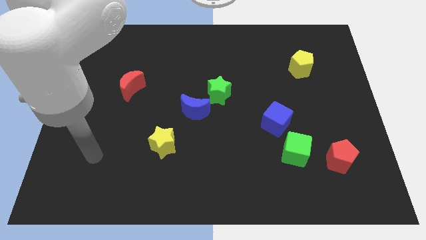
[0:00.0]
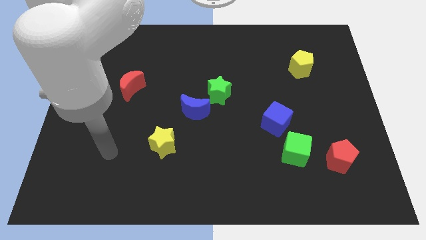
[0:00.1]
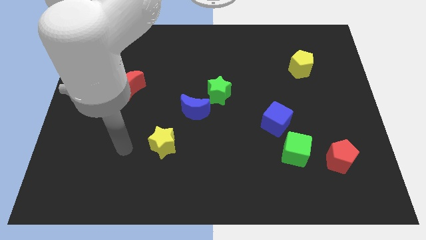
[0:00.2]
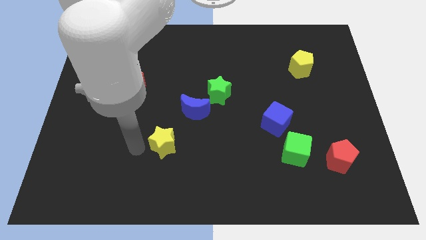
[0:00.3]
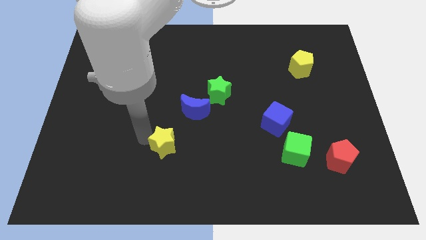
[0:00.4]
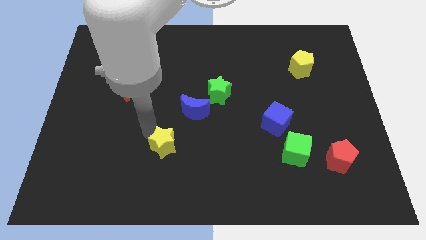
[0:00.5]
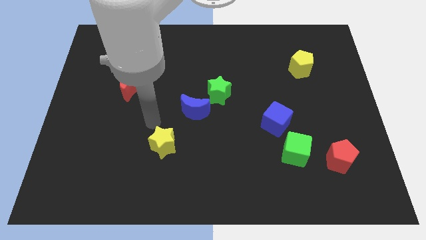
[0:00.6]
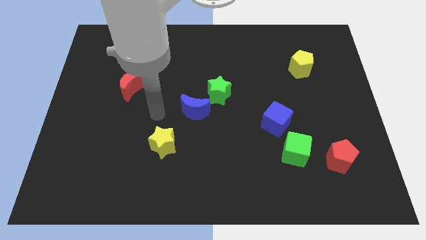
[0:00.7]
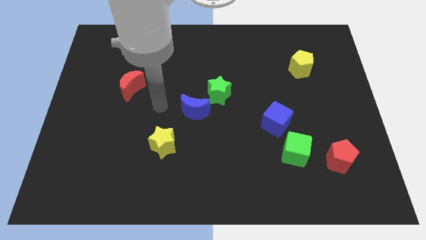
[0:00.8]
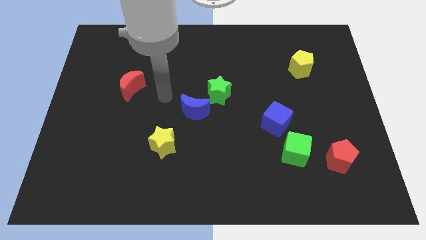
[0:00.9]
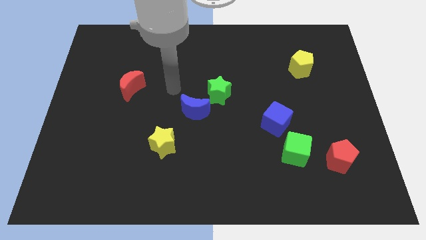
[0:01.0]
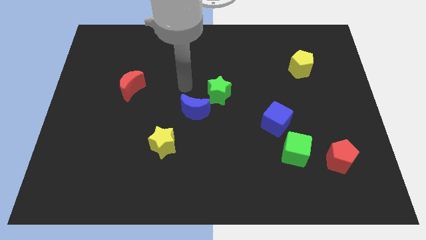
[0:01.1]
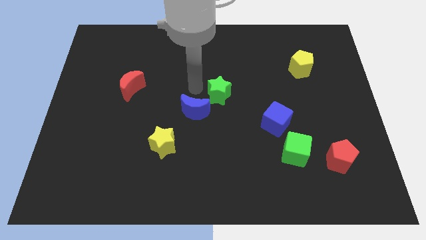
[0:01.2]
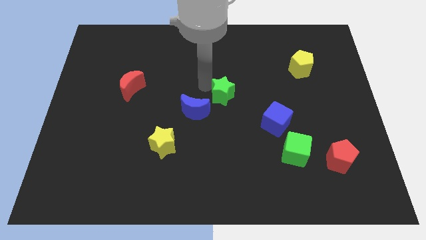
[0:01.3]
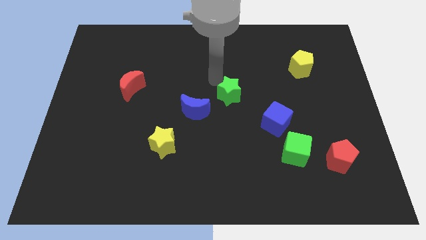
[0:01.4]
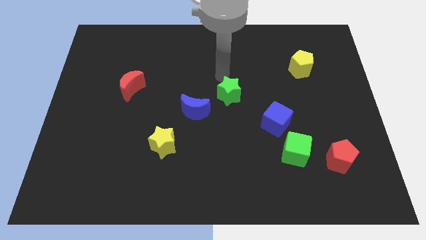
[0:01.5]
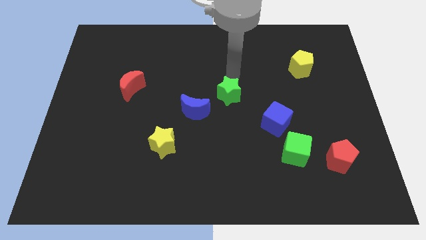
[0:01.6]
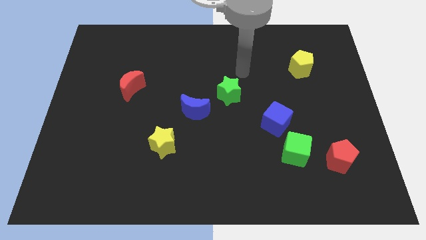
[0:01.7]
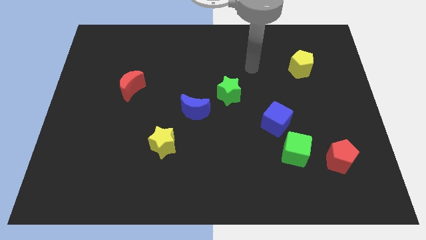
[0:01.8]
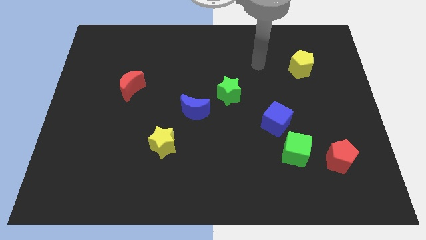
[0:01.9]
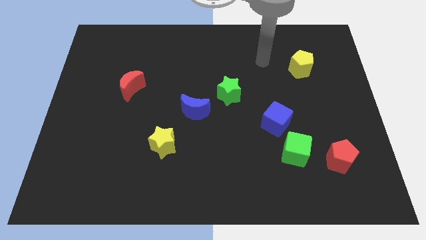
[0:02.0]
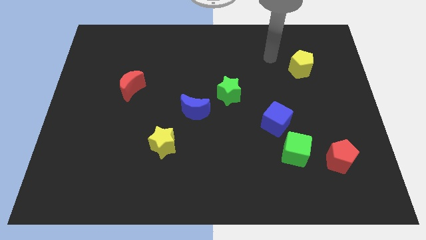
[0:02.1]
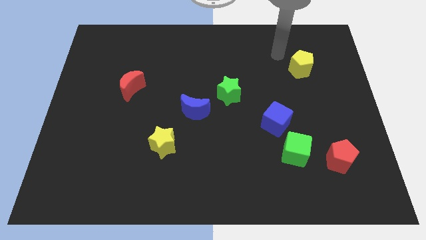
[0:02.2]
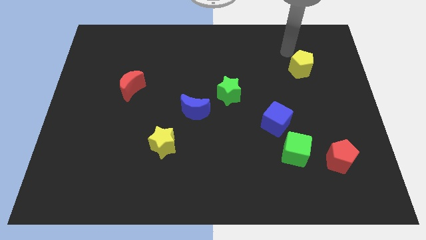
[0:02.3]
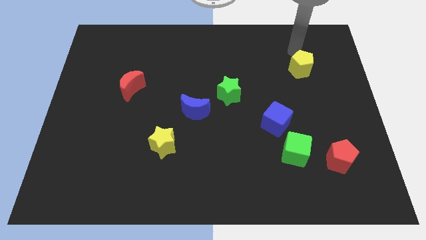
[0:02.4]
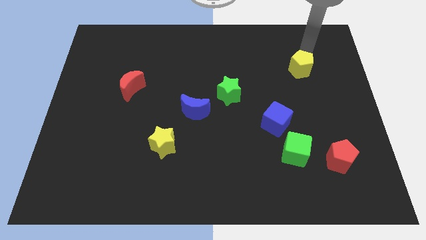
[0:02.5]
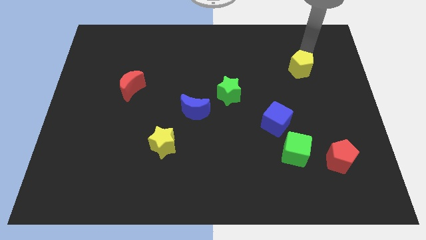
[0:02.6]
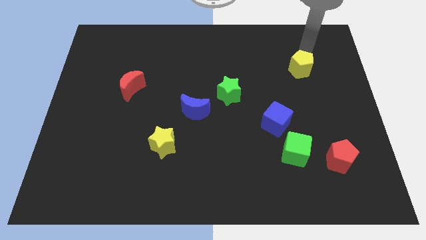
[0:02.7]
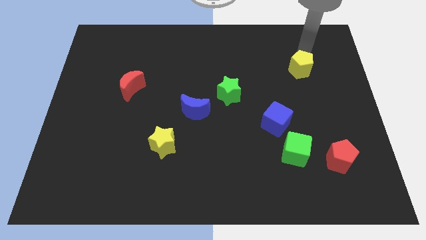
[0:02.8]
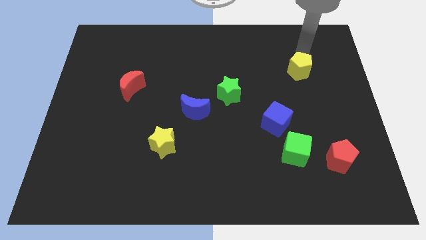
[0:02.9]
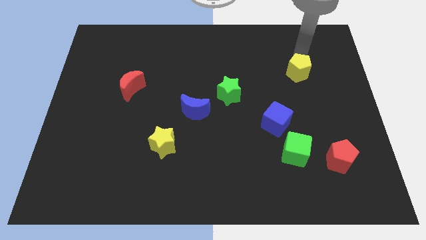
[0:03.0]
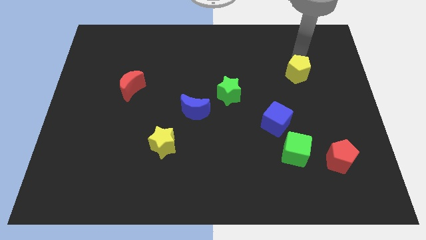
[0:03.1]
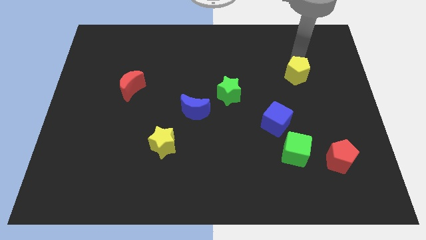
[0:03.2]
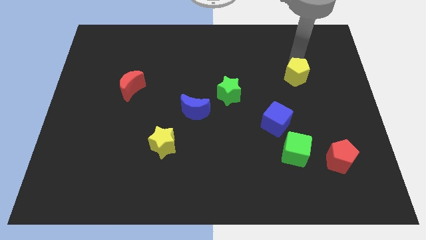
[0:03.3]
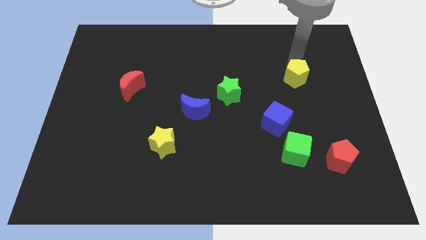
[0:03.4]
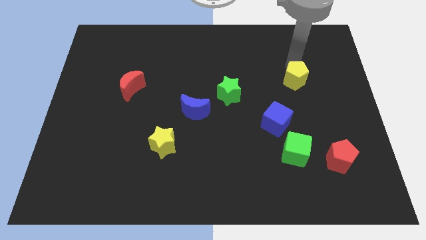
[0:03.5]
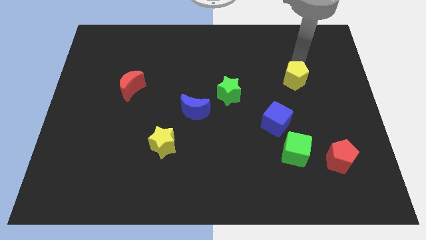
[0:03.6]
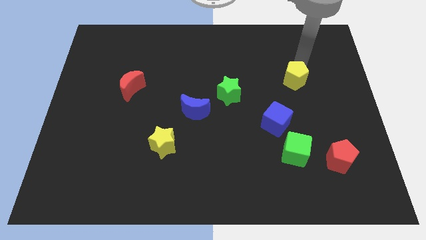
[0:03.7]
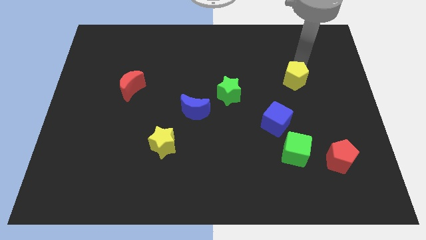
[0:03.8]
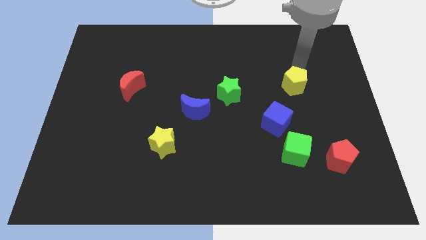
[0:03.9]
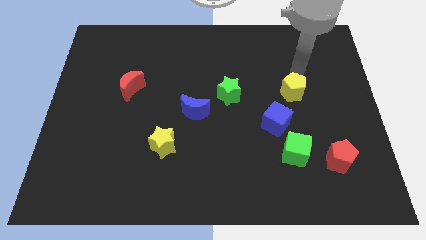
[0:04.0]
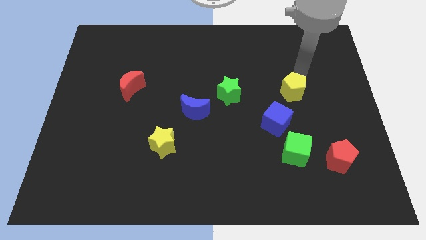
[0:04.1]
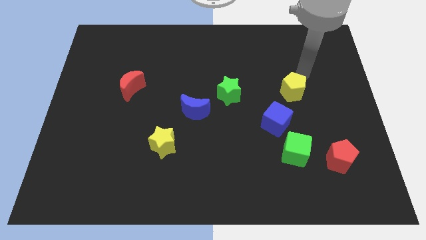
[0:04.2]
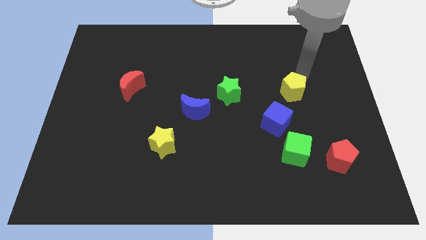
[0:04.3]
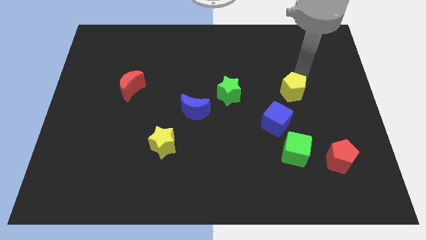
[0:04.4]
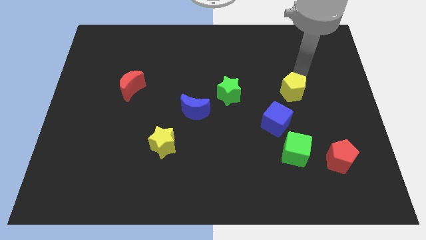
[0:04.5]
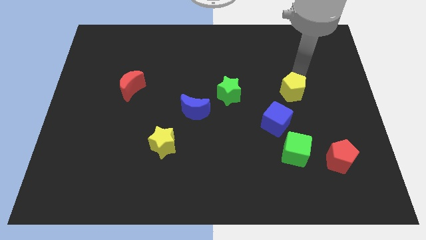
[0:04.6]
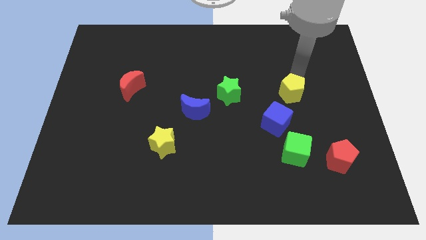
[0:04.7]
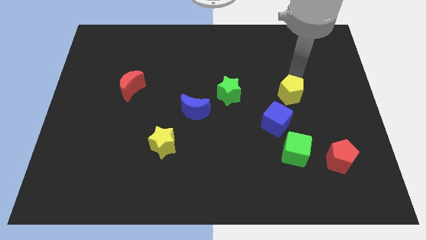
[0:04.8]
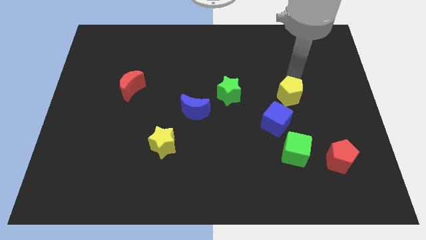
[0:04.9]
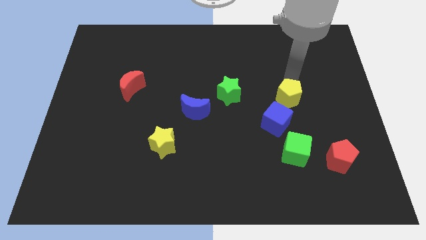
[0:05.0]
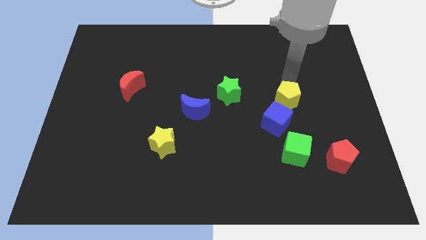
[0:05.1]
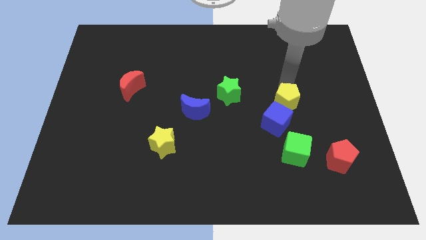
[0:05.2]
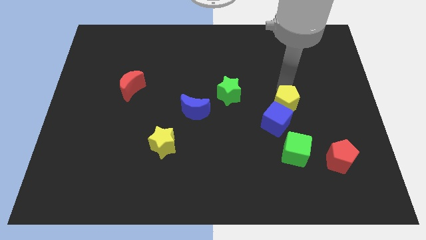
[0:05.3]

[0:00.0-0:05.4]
put the yellow pentagon next to the blue cube

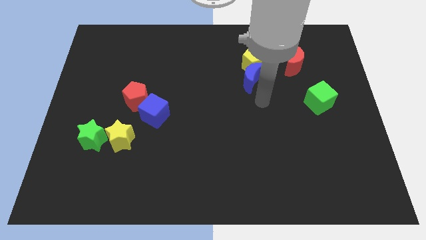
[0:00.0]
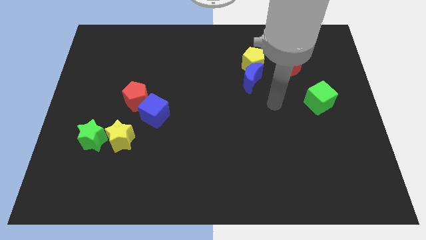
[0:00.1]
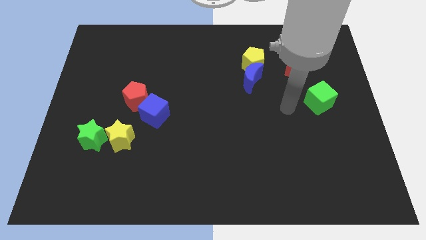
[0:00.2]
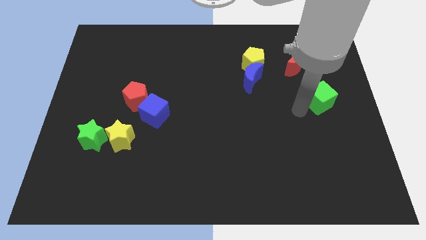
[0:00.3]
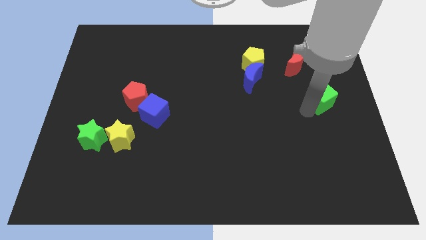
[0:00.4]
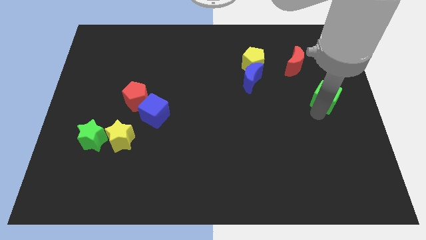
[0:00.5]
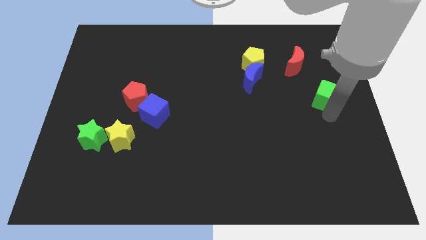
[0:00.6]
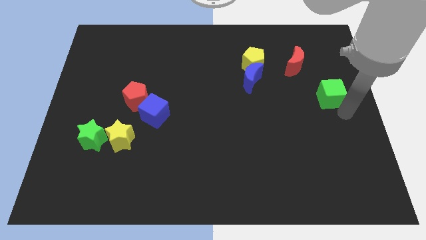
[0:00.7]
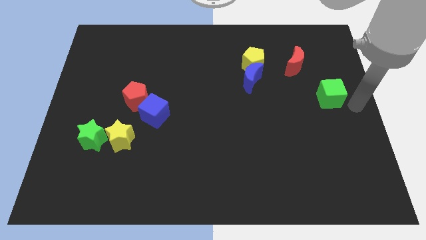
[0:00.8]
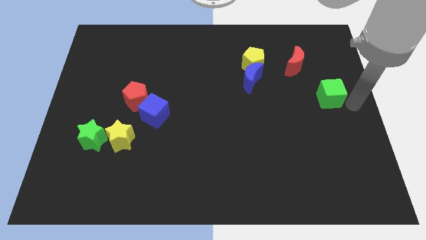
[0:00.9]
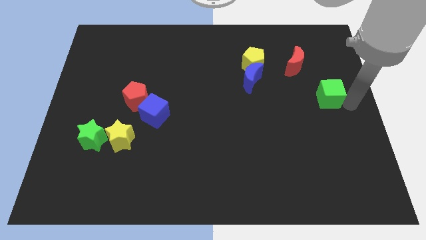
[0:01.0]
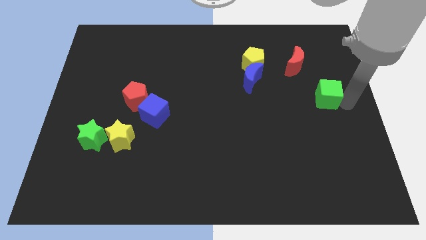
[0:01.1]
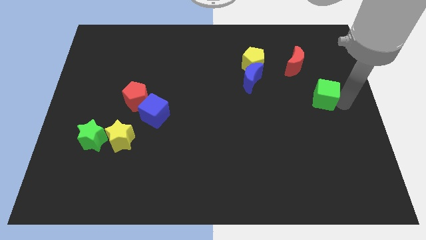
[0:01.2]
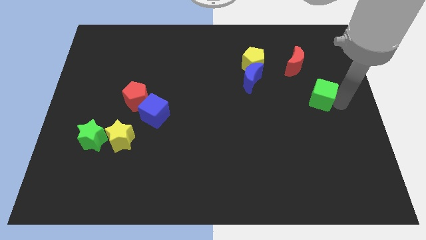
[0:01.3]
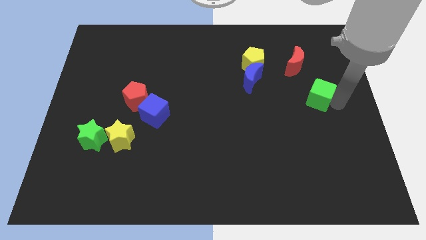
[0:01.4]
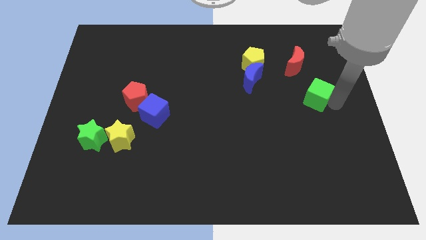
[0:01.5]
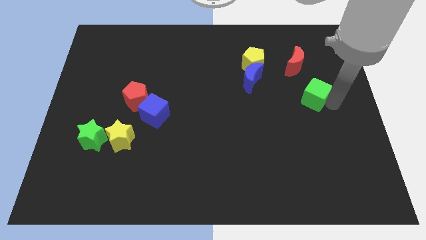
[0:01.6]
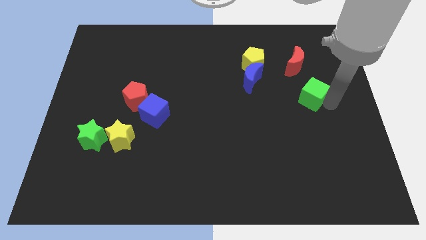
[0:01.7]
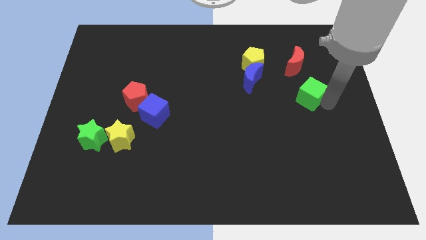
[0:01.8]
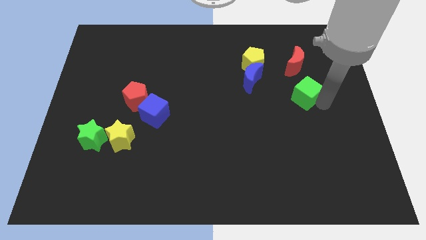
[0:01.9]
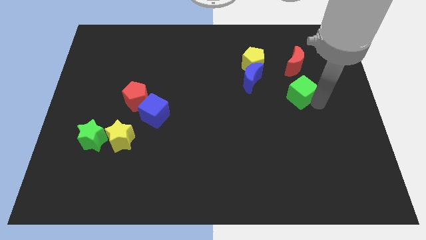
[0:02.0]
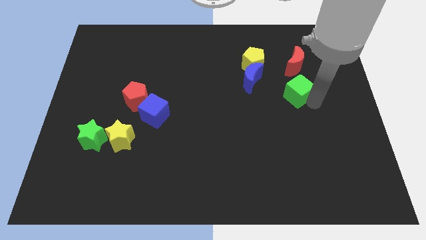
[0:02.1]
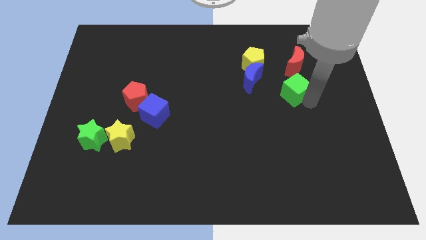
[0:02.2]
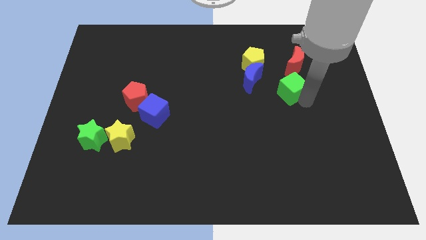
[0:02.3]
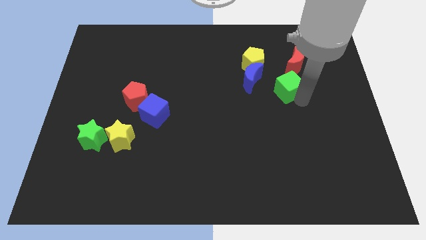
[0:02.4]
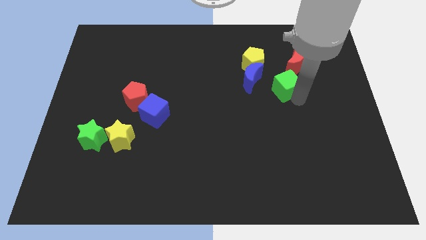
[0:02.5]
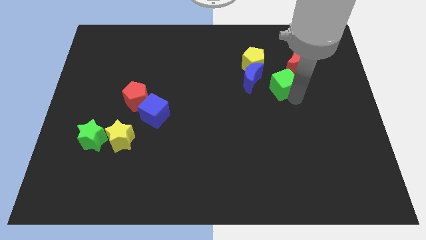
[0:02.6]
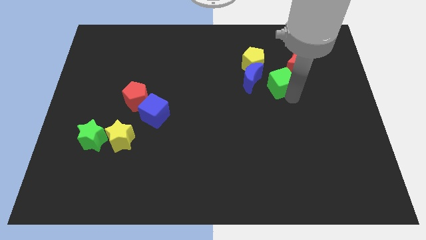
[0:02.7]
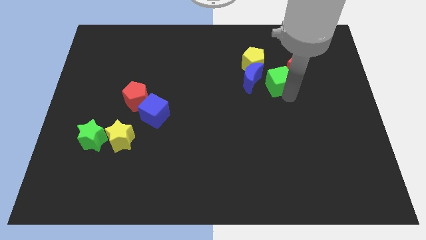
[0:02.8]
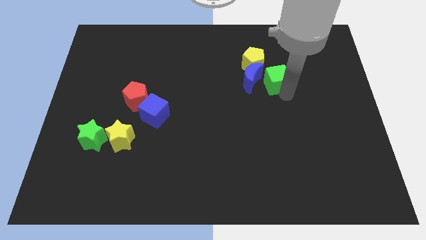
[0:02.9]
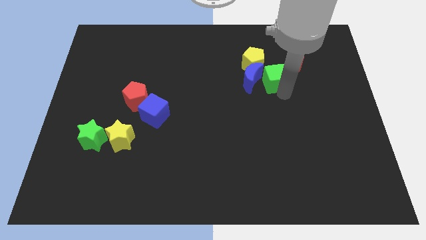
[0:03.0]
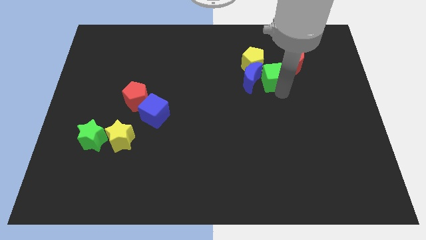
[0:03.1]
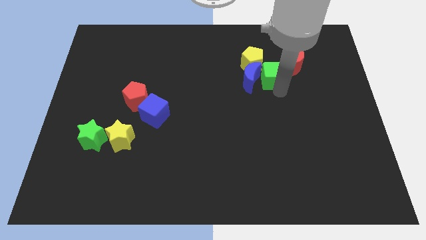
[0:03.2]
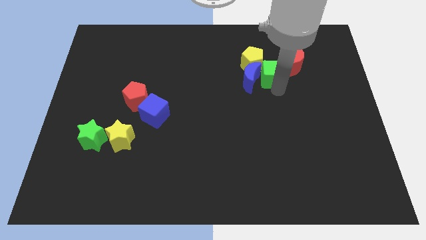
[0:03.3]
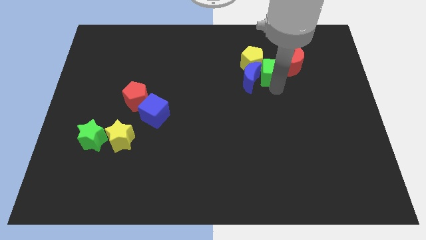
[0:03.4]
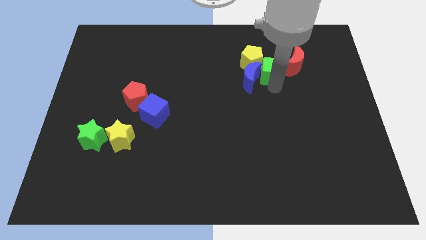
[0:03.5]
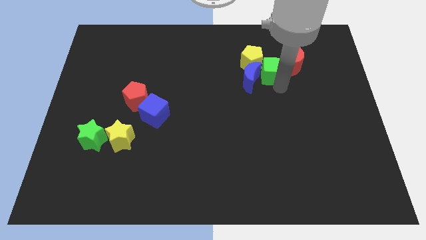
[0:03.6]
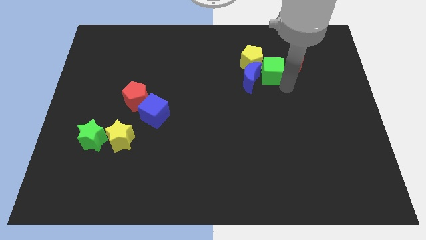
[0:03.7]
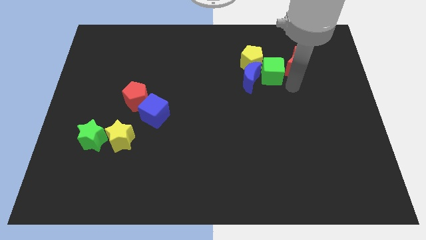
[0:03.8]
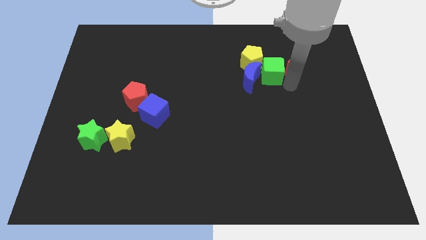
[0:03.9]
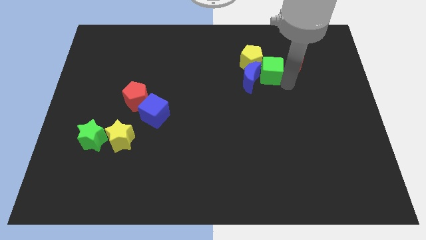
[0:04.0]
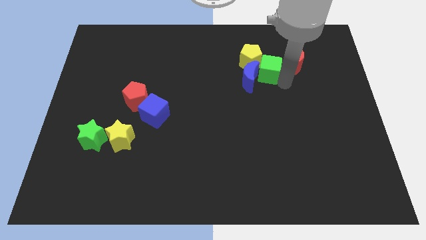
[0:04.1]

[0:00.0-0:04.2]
push the green cube close to the yellow pentagon
